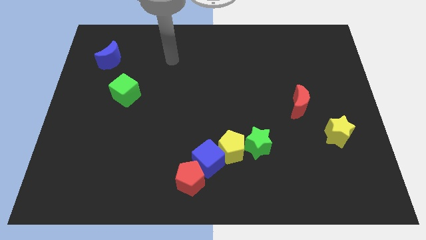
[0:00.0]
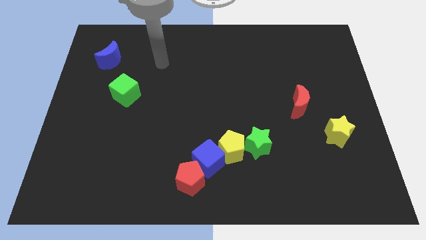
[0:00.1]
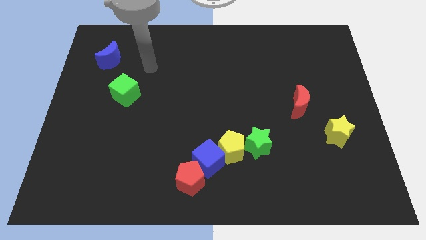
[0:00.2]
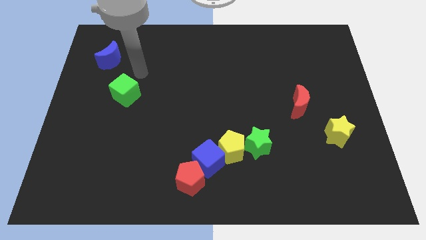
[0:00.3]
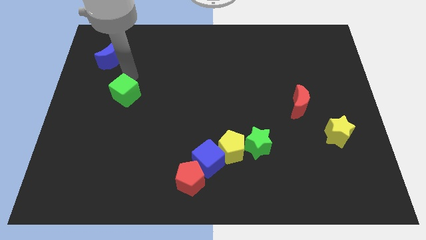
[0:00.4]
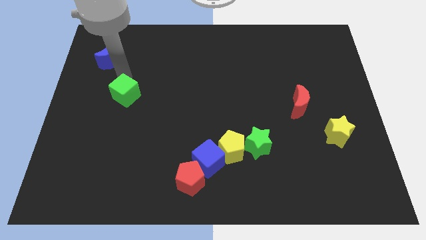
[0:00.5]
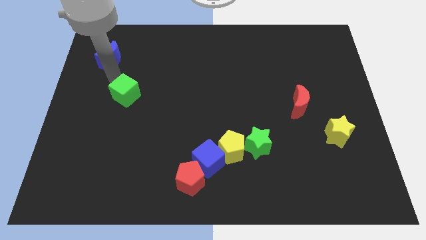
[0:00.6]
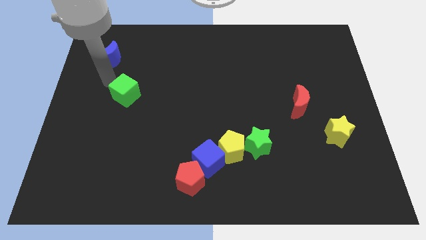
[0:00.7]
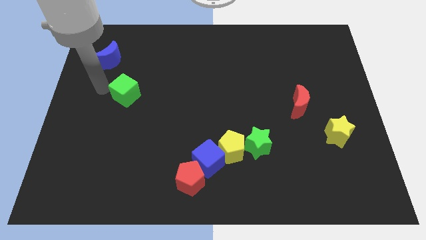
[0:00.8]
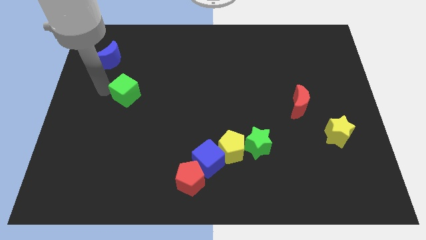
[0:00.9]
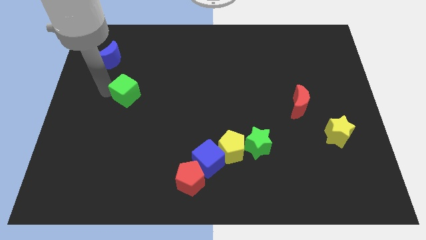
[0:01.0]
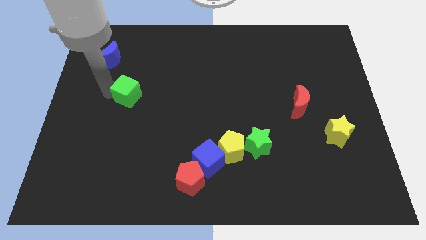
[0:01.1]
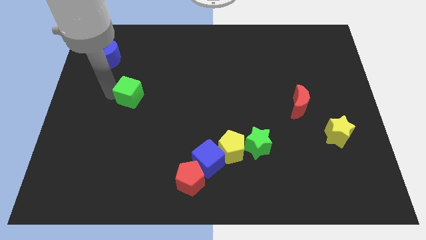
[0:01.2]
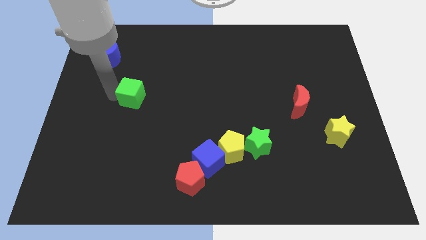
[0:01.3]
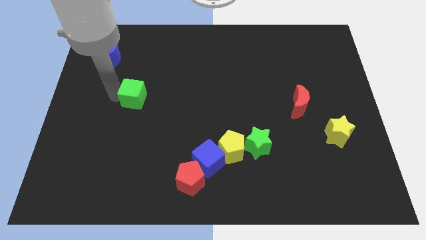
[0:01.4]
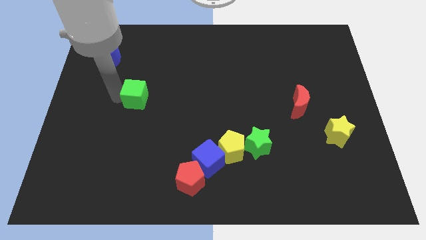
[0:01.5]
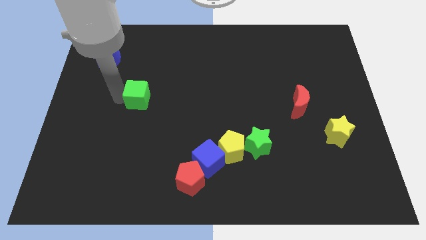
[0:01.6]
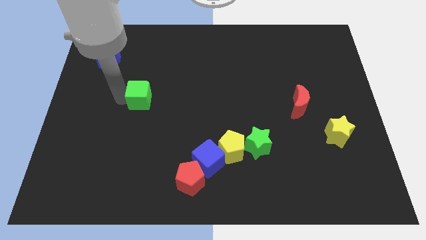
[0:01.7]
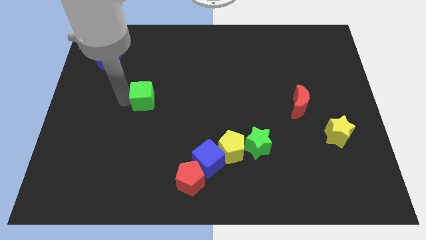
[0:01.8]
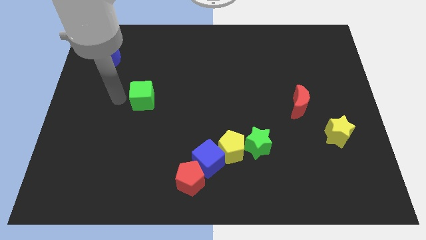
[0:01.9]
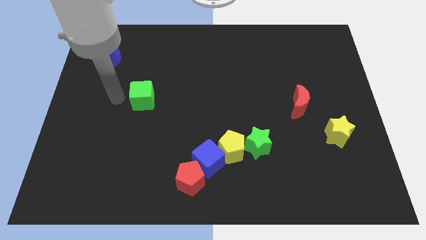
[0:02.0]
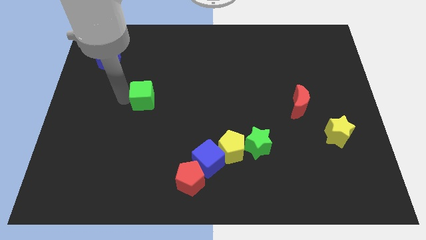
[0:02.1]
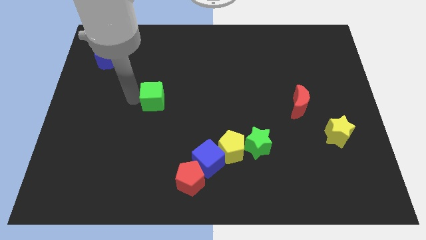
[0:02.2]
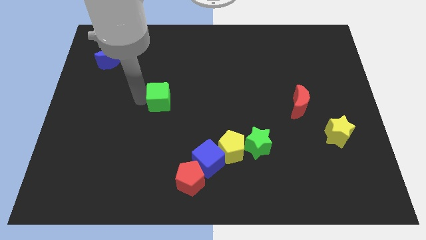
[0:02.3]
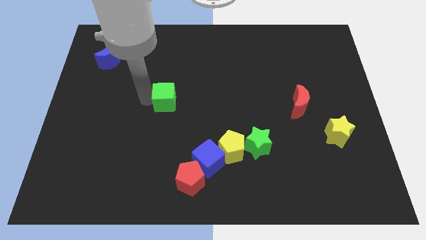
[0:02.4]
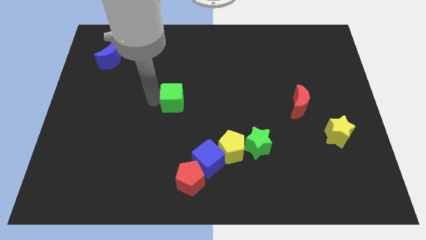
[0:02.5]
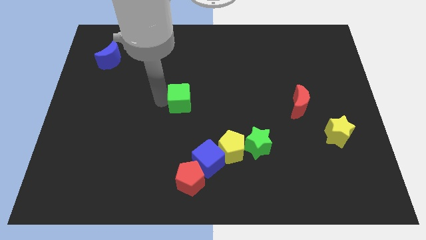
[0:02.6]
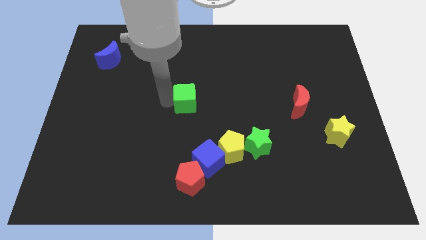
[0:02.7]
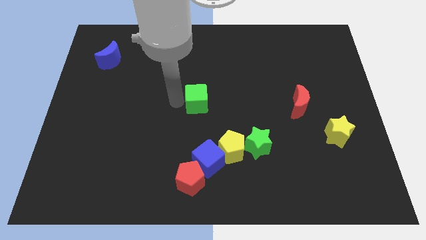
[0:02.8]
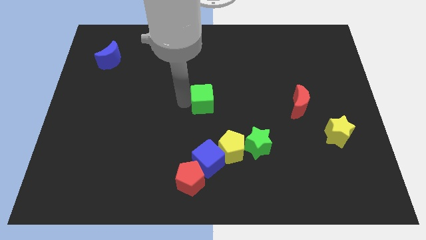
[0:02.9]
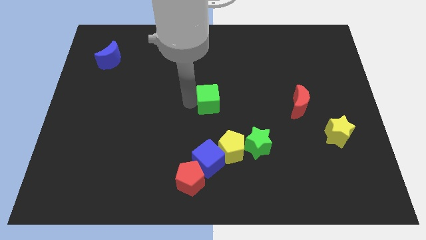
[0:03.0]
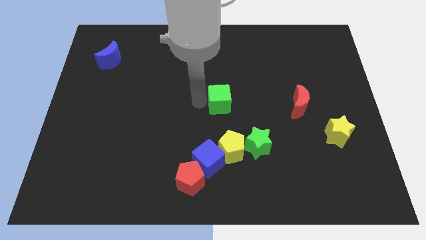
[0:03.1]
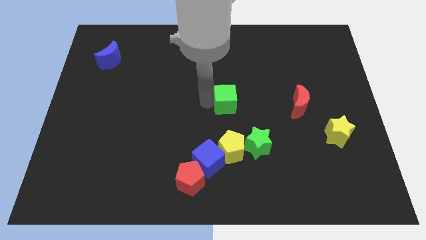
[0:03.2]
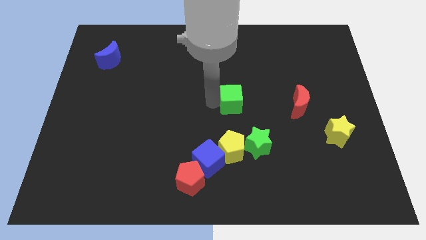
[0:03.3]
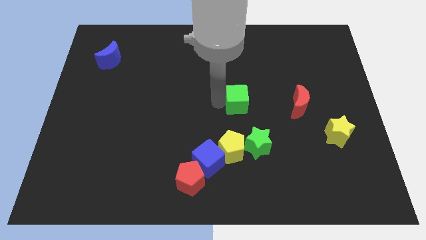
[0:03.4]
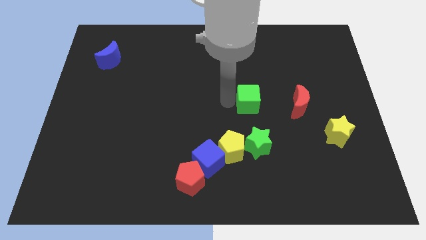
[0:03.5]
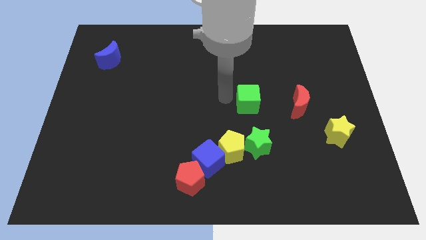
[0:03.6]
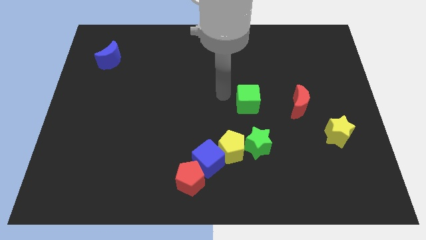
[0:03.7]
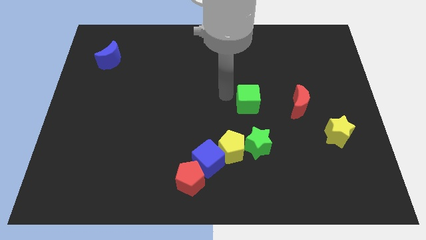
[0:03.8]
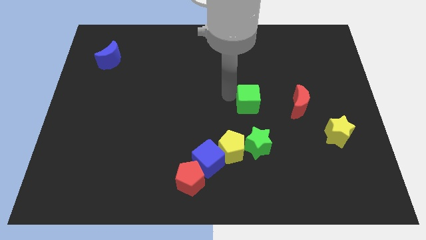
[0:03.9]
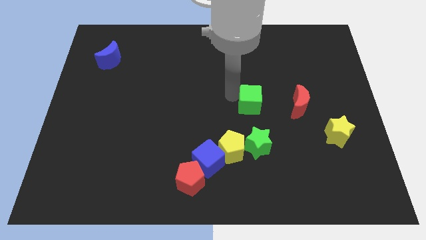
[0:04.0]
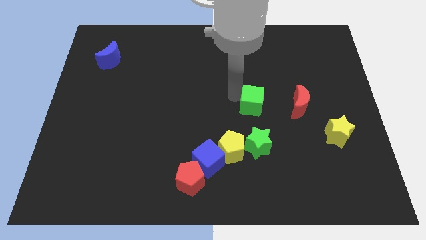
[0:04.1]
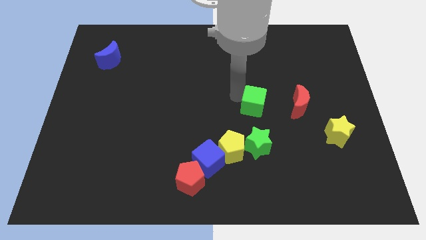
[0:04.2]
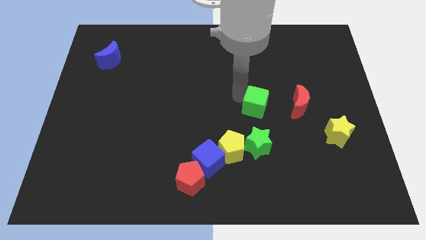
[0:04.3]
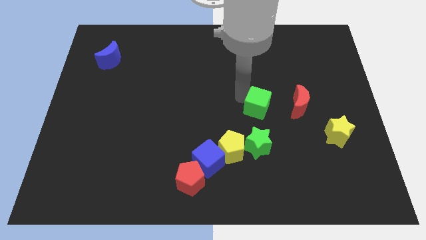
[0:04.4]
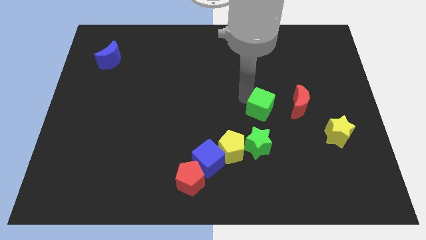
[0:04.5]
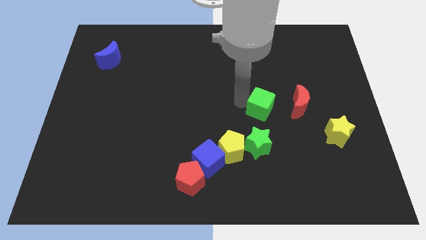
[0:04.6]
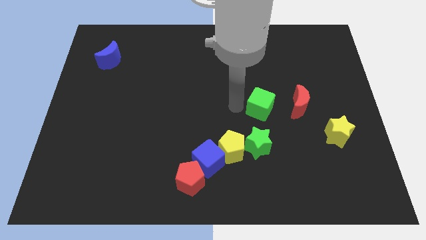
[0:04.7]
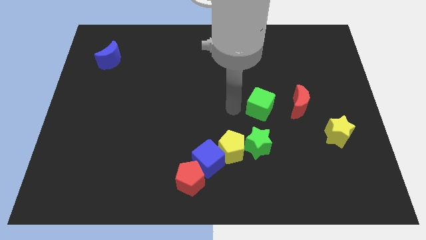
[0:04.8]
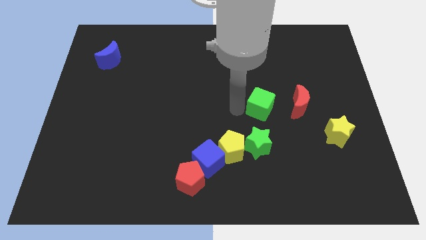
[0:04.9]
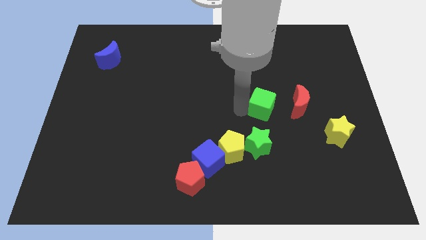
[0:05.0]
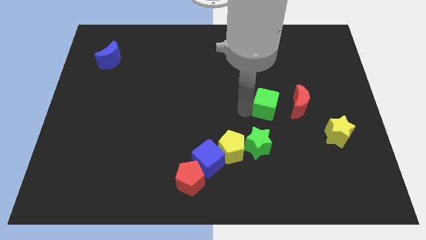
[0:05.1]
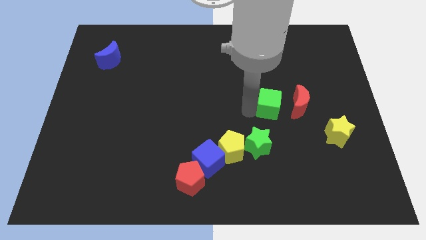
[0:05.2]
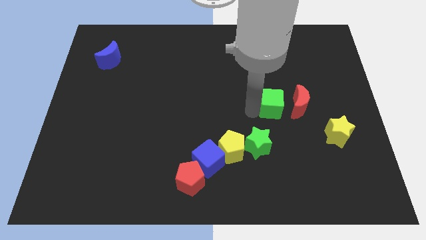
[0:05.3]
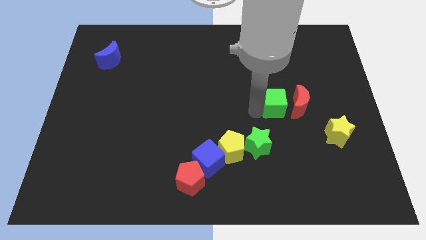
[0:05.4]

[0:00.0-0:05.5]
slide the green cube to the red moon

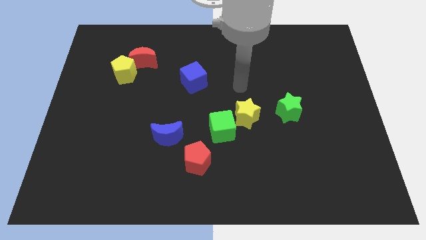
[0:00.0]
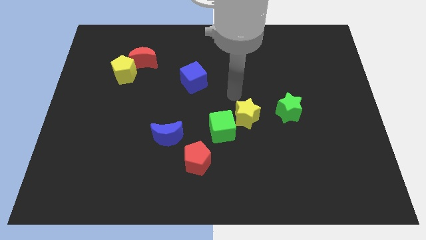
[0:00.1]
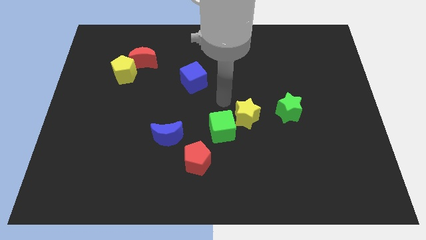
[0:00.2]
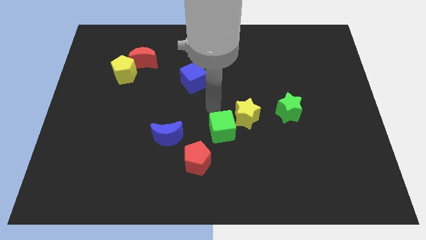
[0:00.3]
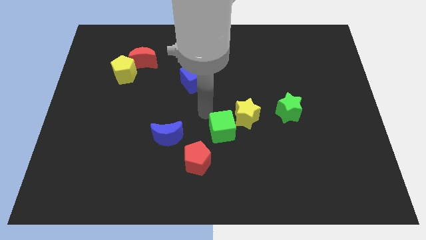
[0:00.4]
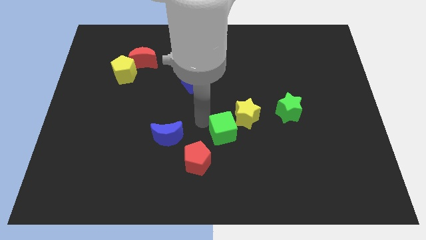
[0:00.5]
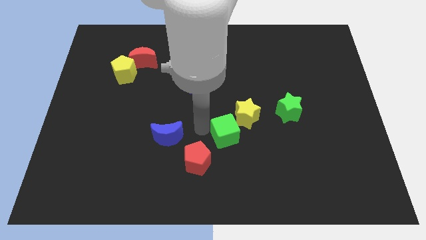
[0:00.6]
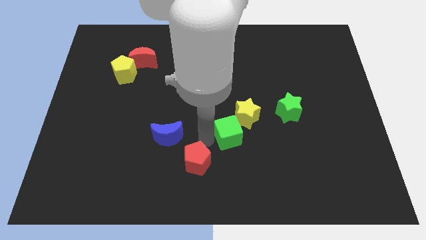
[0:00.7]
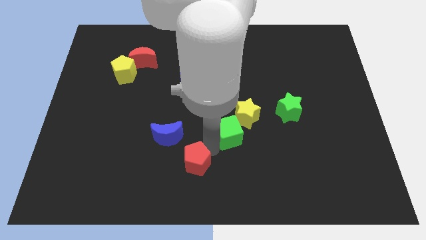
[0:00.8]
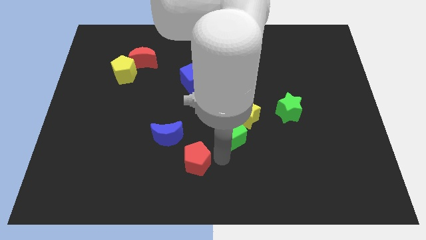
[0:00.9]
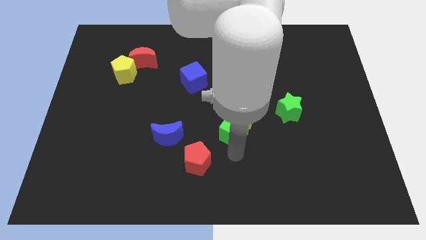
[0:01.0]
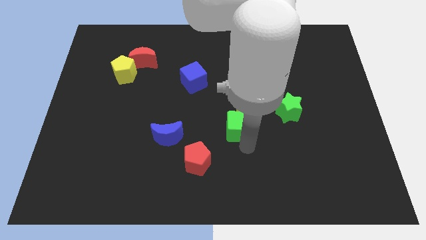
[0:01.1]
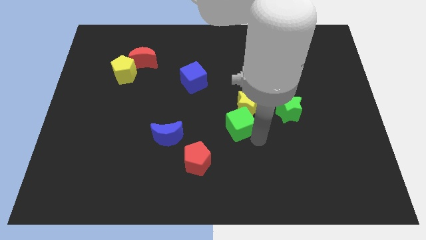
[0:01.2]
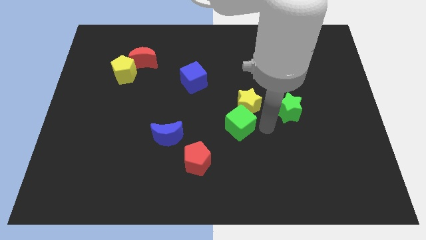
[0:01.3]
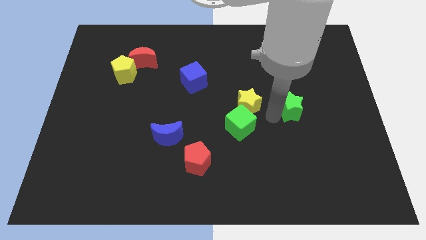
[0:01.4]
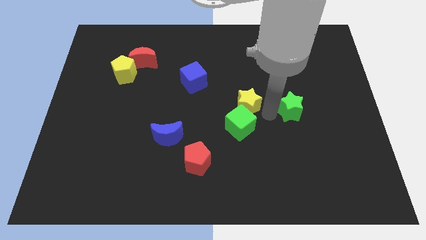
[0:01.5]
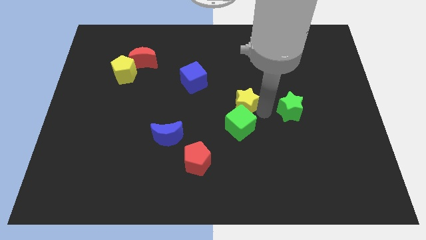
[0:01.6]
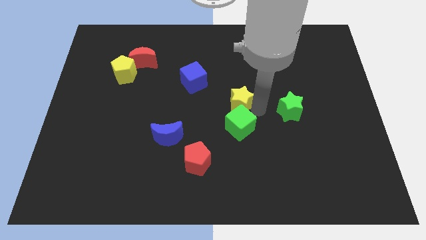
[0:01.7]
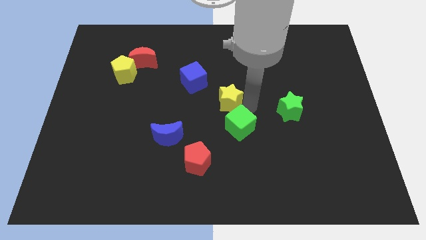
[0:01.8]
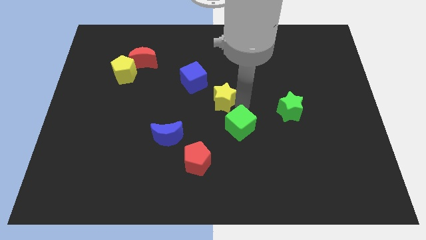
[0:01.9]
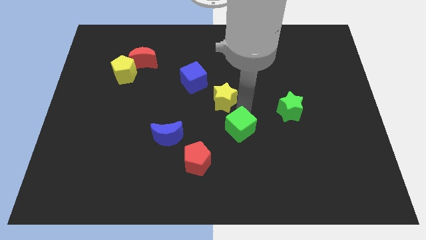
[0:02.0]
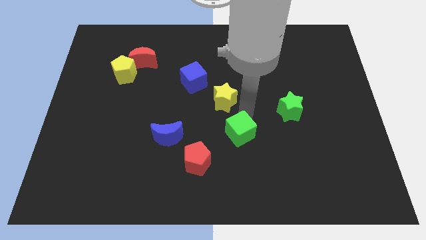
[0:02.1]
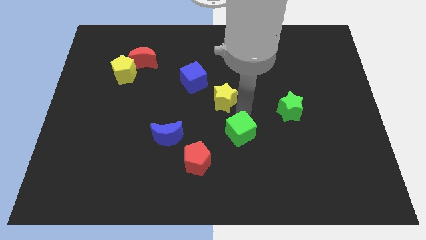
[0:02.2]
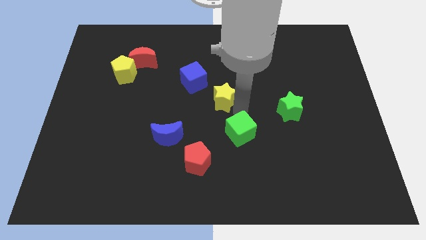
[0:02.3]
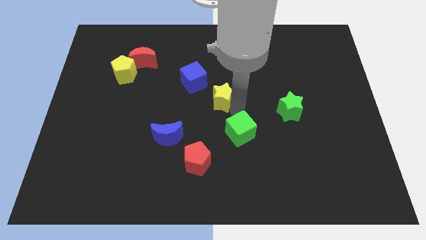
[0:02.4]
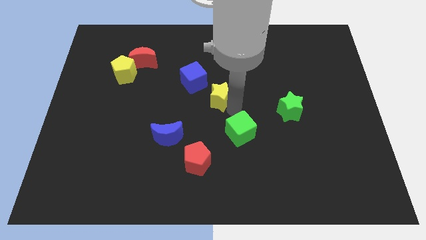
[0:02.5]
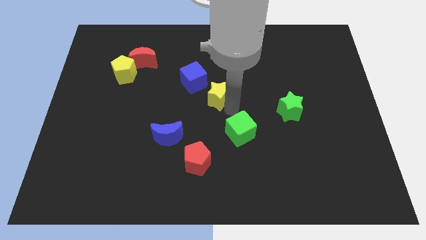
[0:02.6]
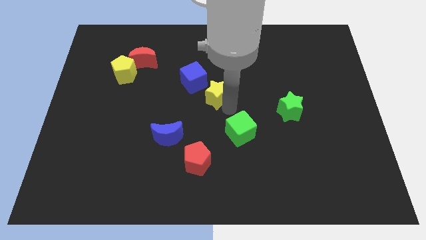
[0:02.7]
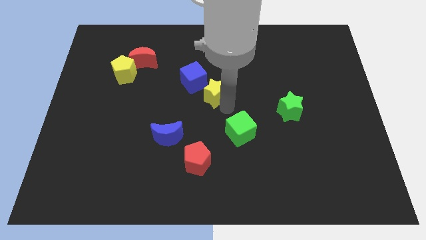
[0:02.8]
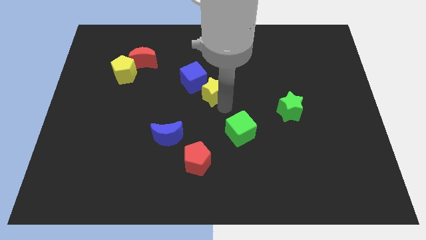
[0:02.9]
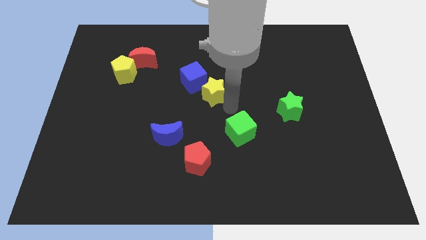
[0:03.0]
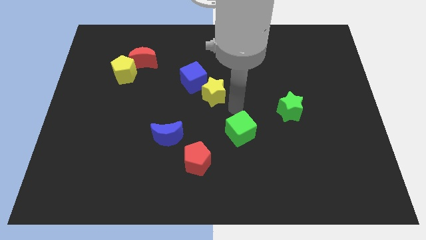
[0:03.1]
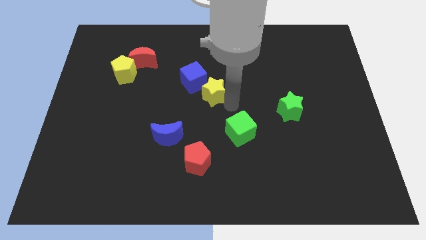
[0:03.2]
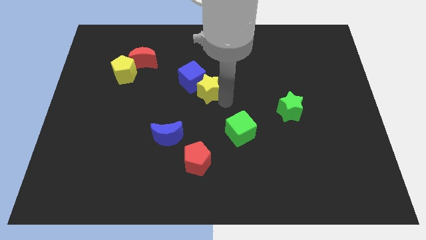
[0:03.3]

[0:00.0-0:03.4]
move the yellow star to the blue cube
